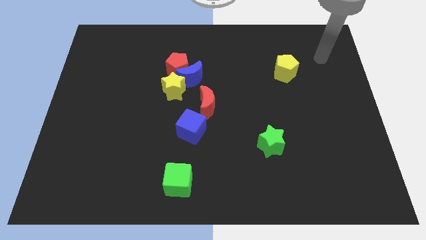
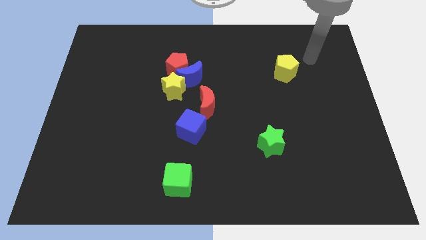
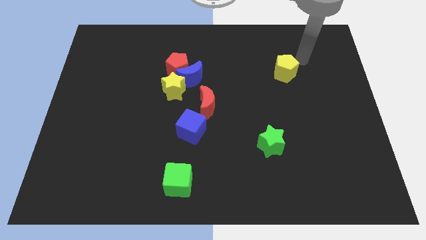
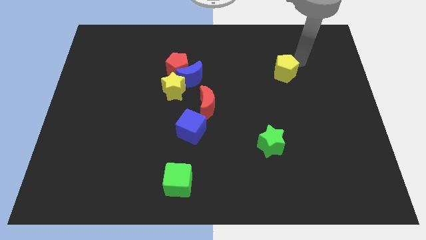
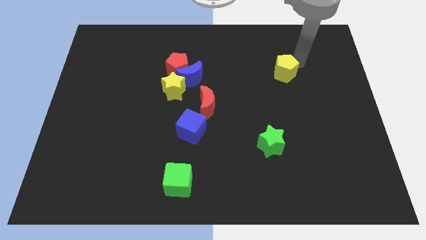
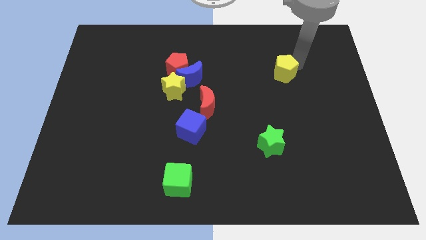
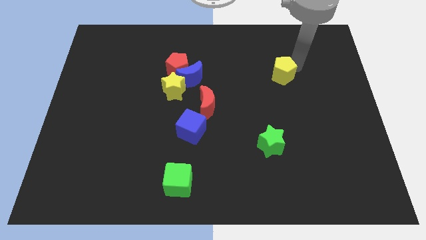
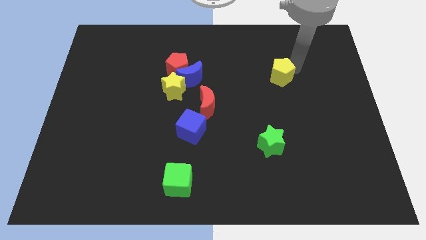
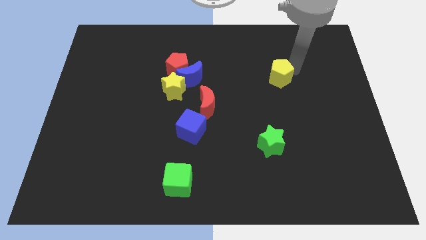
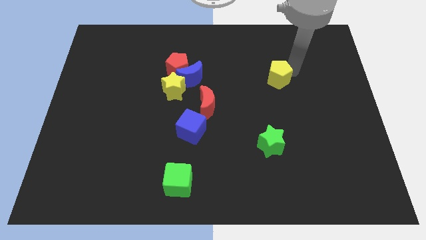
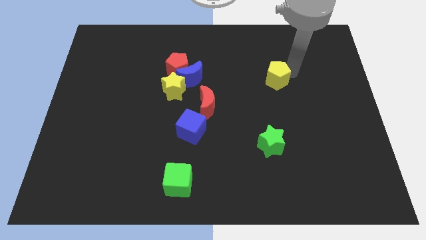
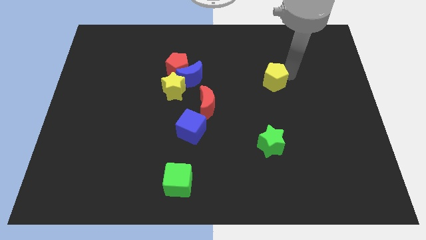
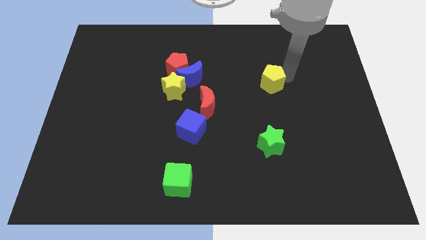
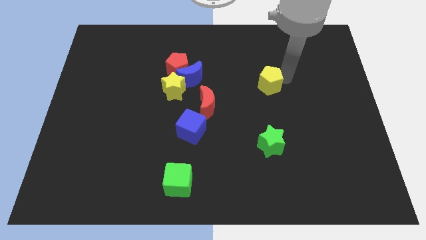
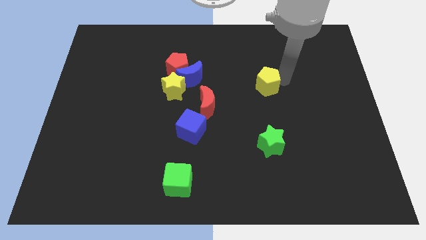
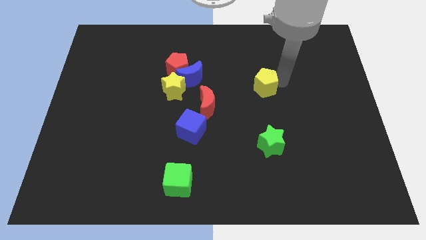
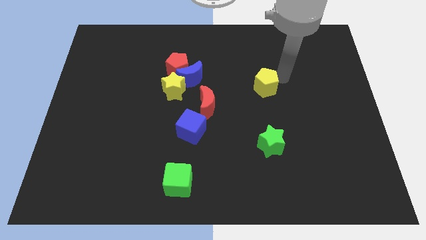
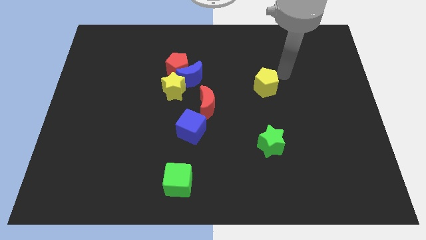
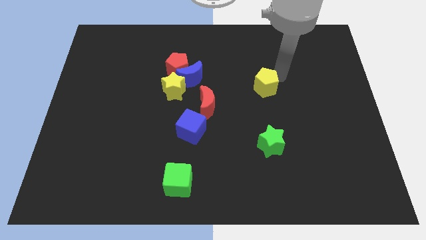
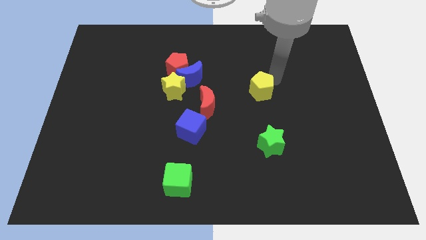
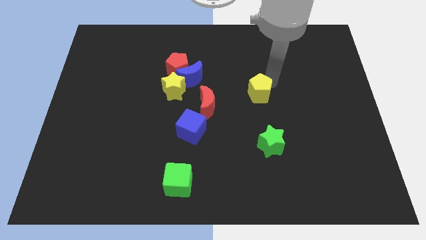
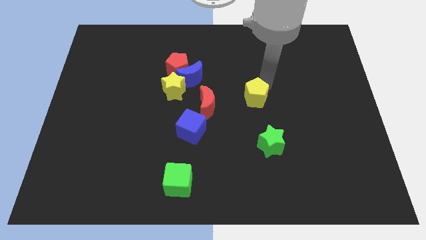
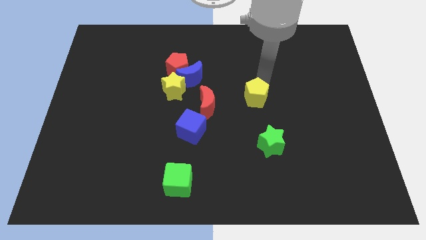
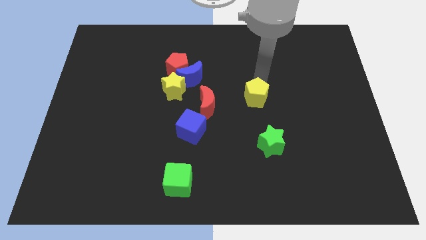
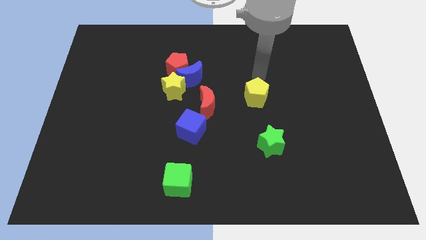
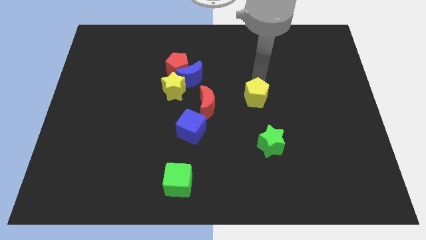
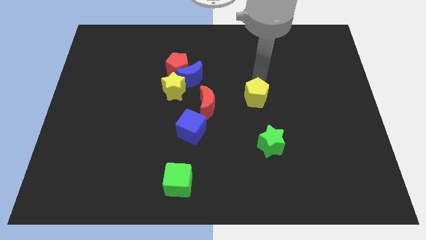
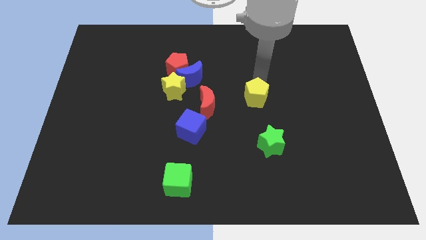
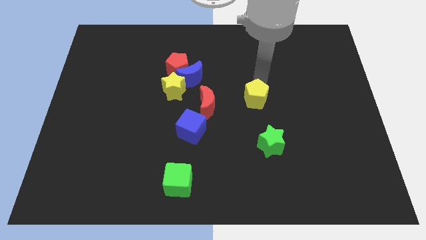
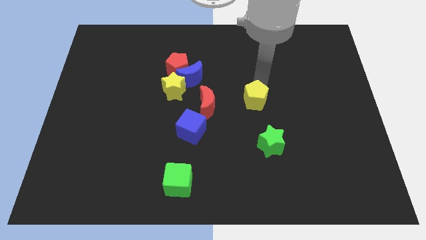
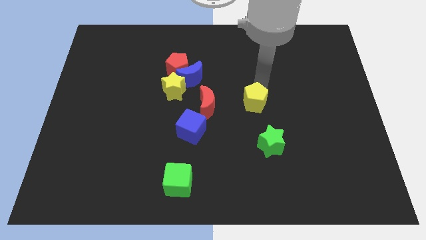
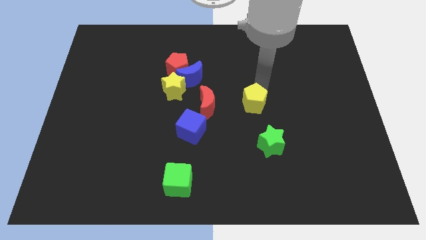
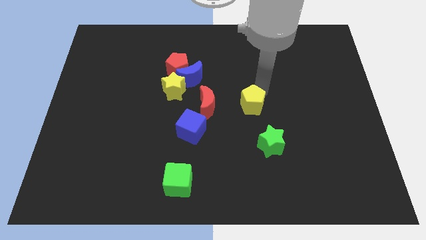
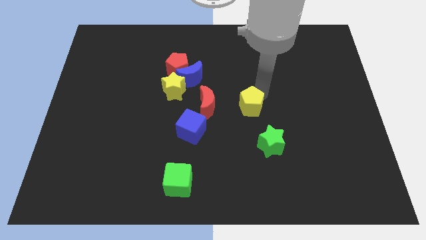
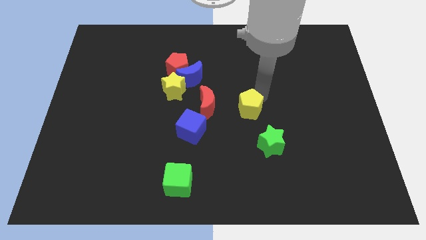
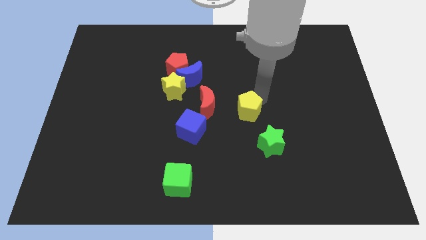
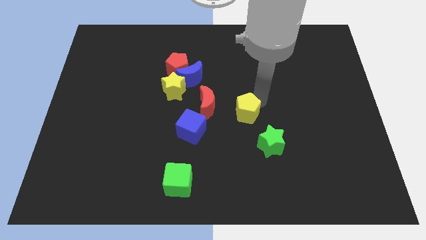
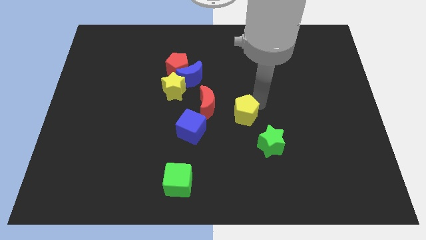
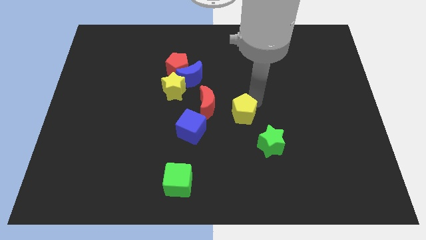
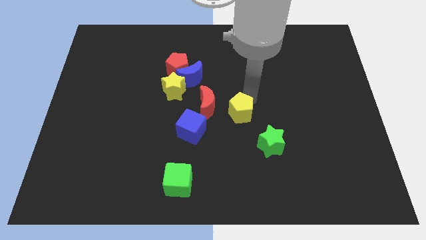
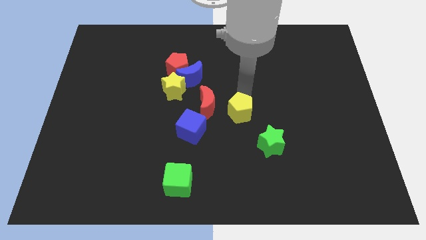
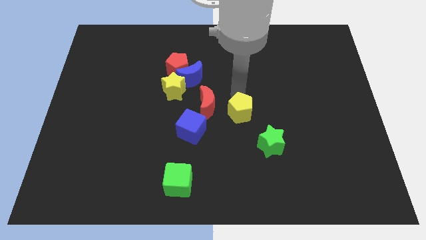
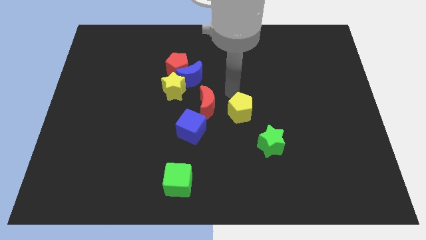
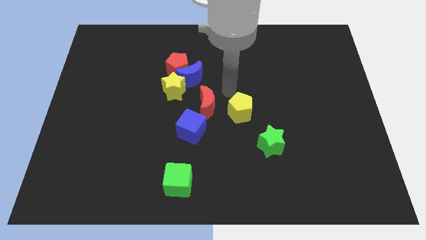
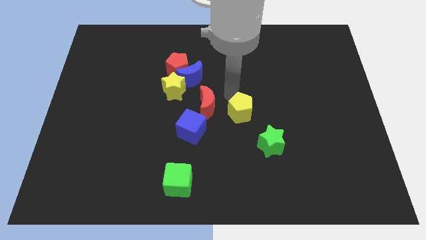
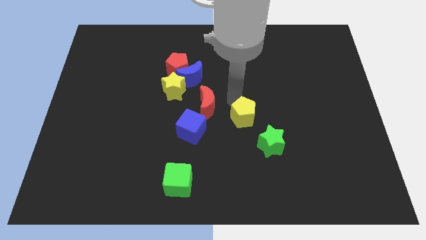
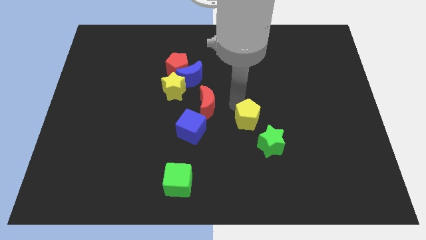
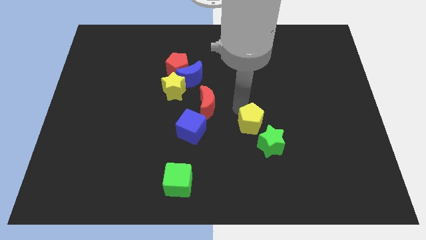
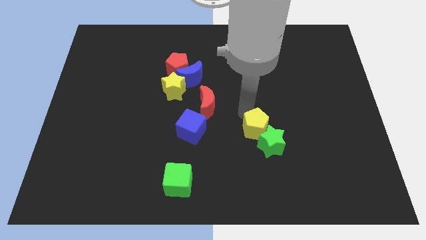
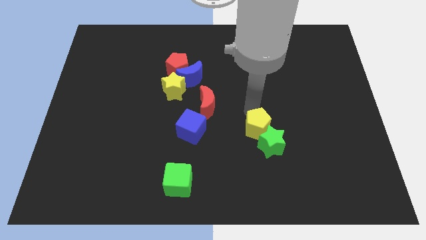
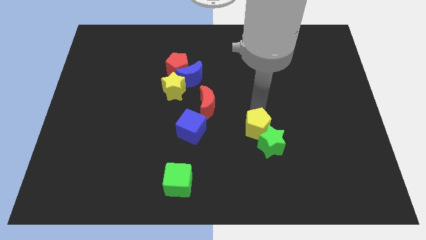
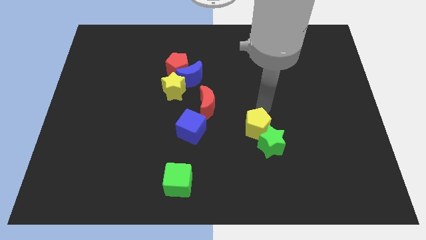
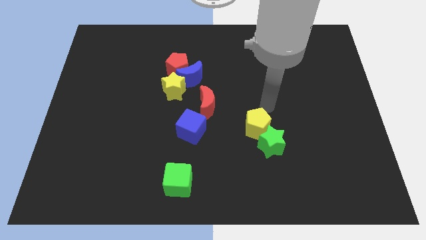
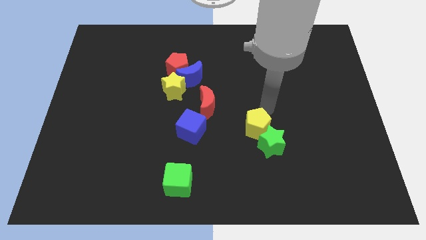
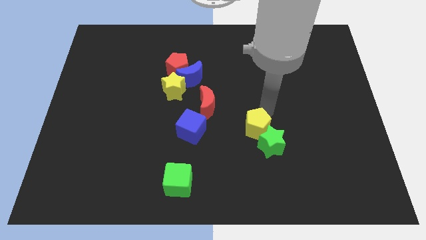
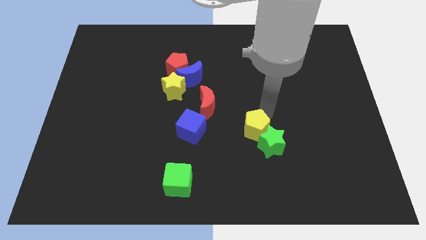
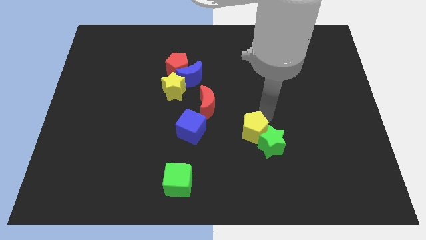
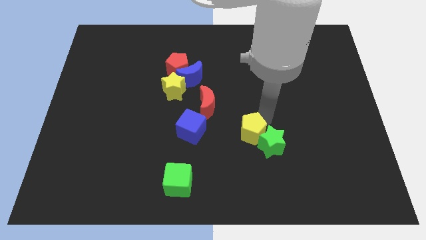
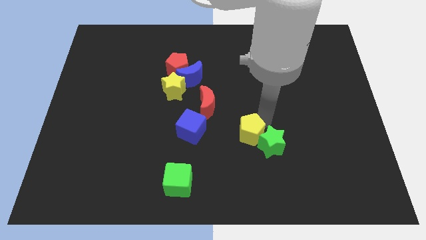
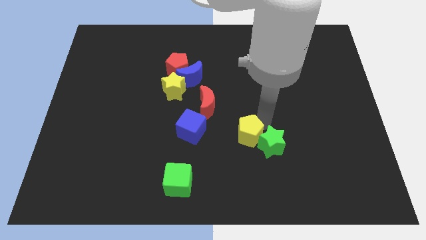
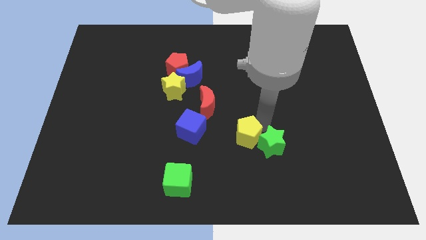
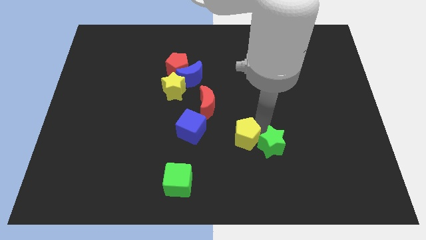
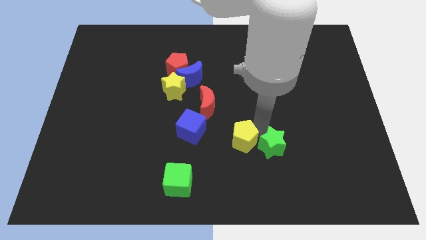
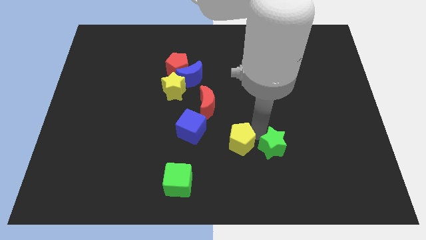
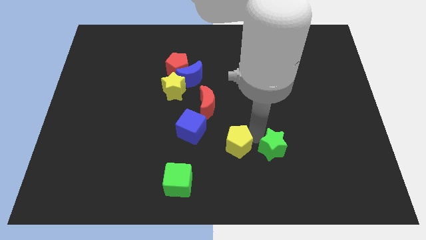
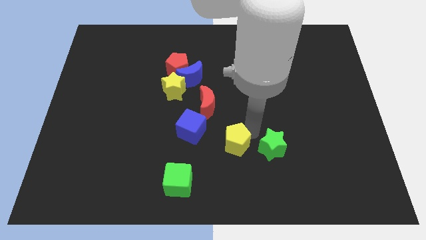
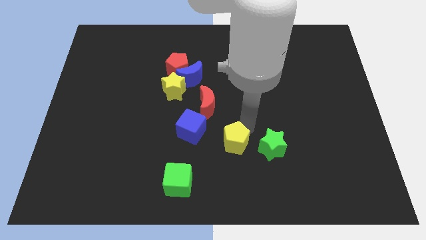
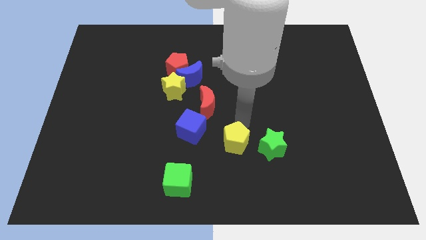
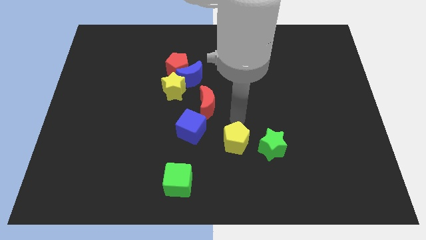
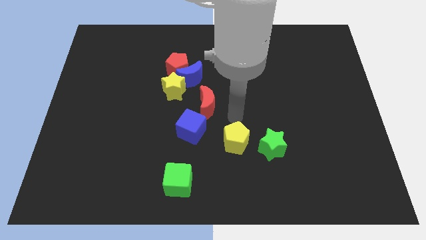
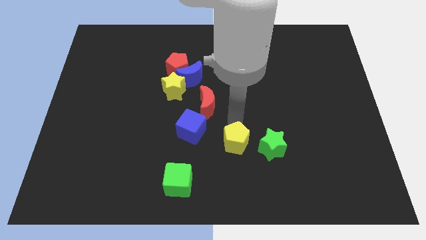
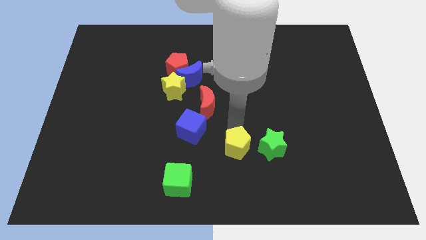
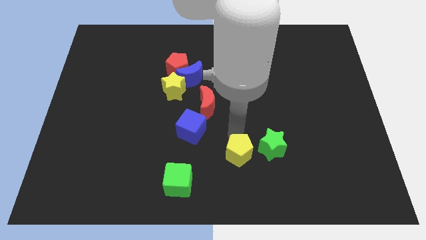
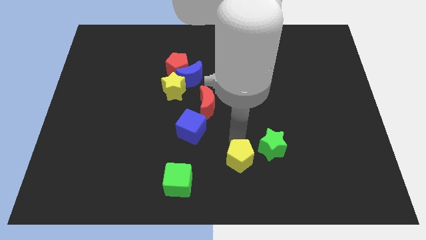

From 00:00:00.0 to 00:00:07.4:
put the yellow pentagon to the bottom

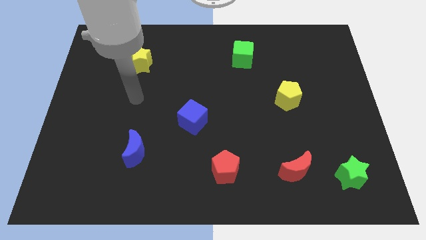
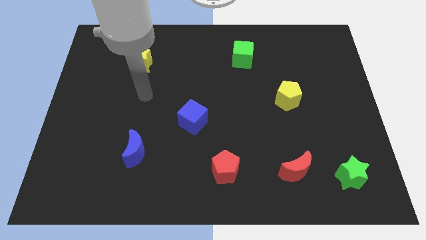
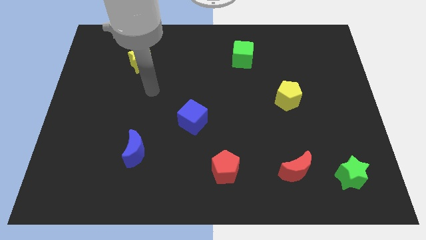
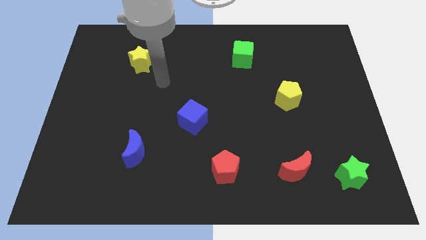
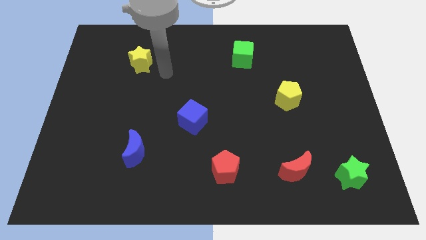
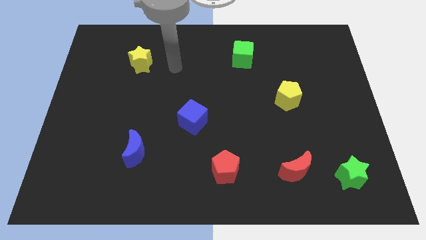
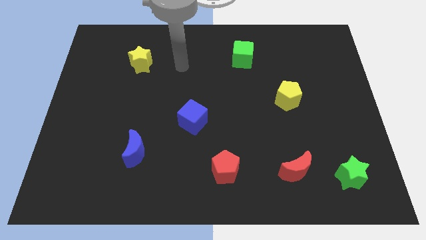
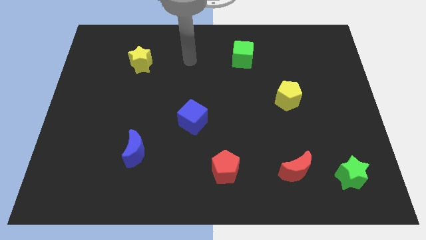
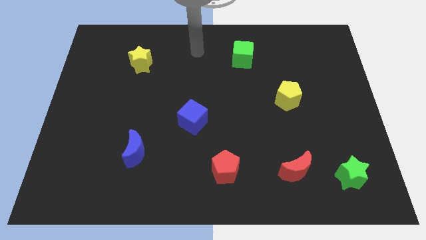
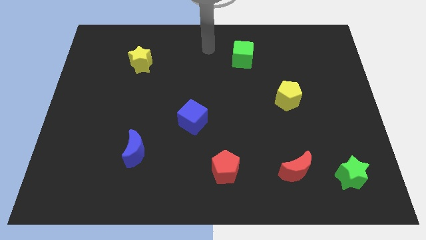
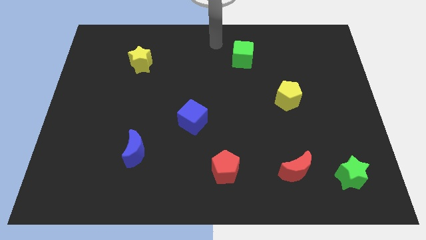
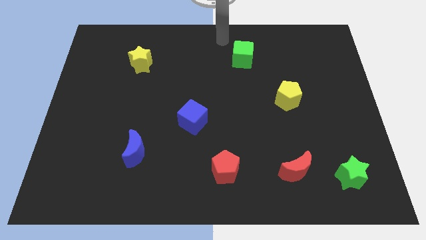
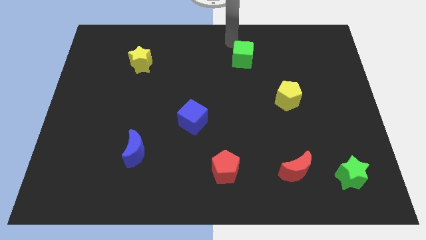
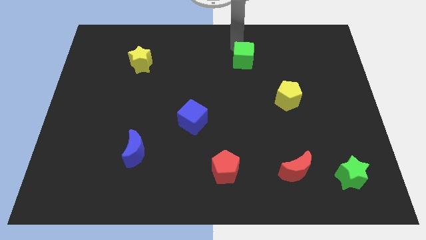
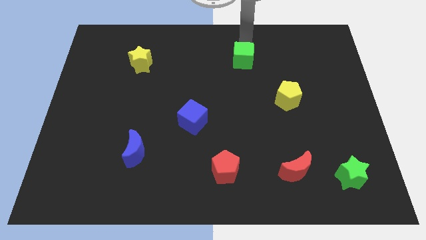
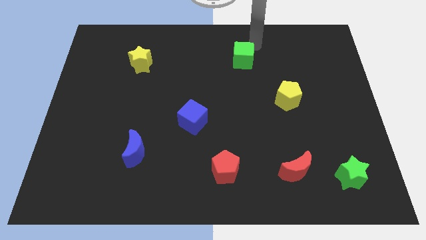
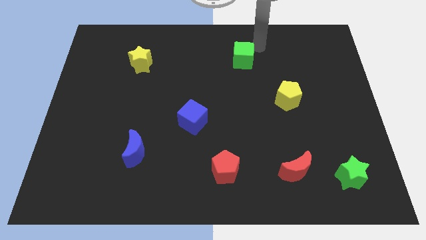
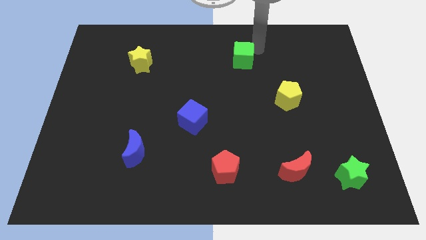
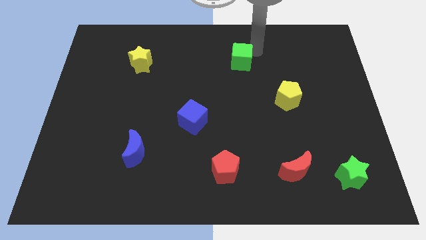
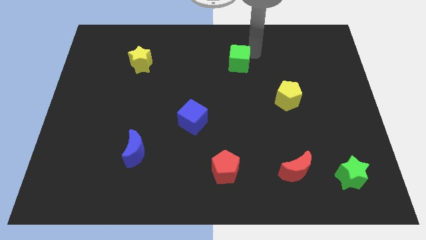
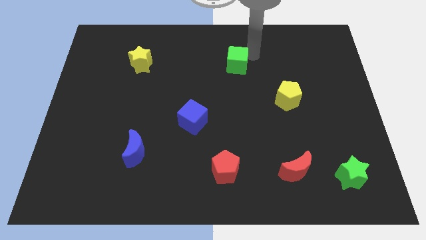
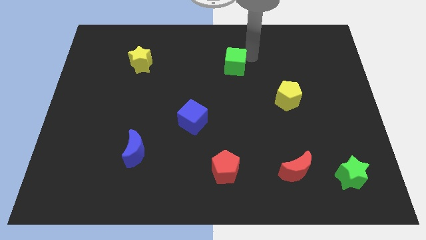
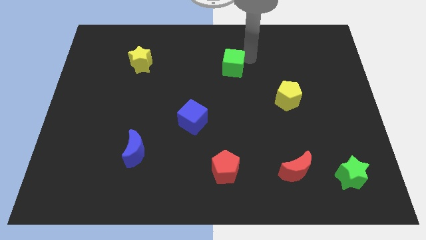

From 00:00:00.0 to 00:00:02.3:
move the green cube to the center
